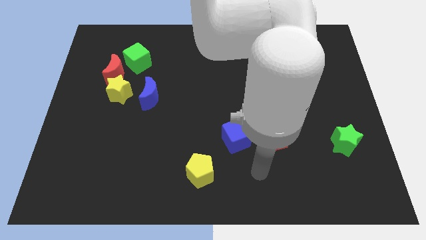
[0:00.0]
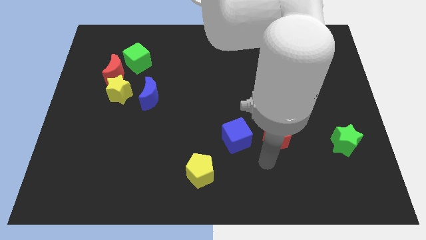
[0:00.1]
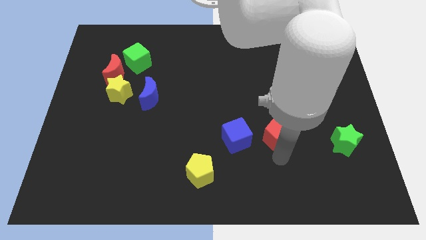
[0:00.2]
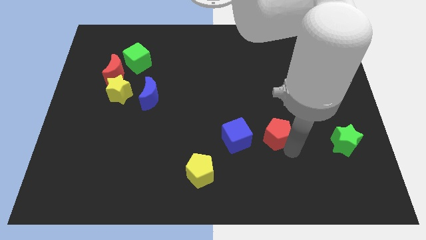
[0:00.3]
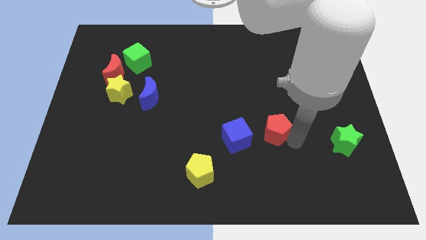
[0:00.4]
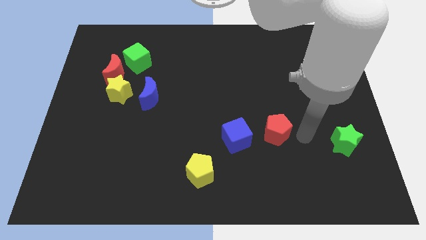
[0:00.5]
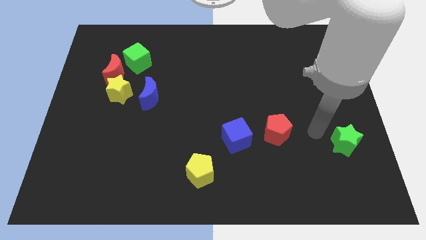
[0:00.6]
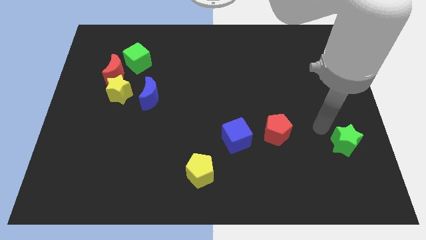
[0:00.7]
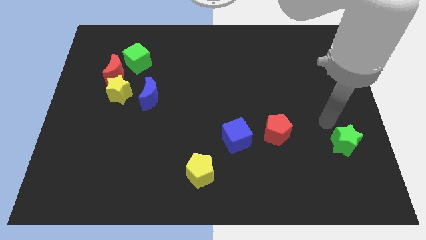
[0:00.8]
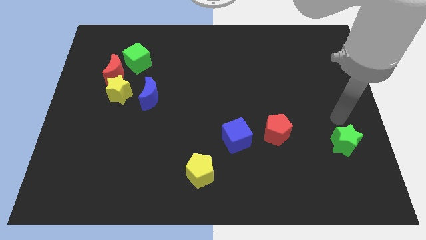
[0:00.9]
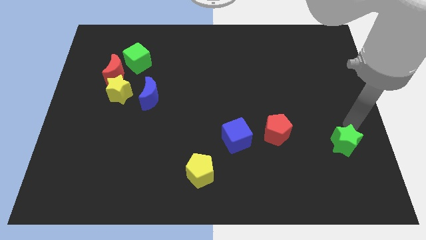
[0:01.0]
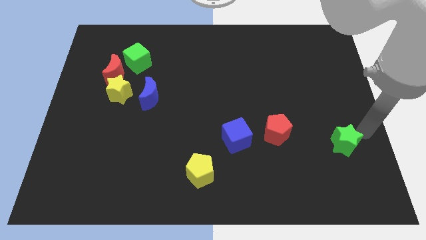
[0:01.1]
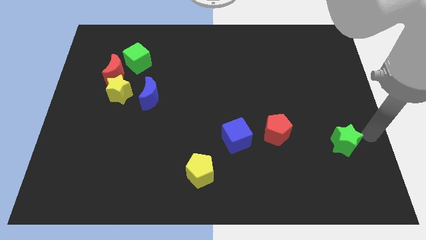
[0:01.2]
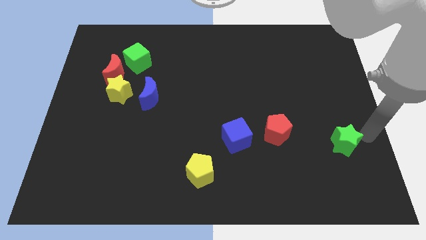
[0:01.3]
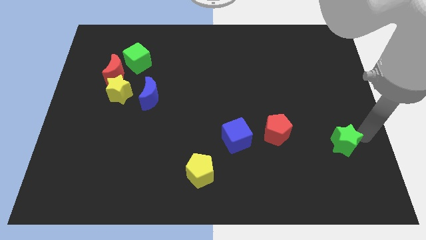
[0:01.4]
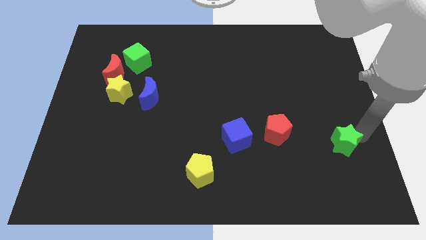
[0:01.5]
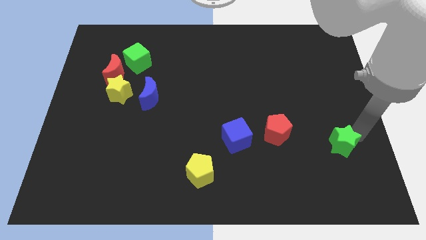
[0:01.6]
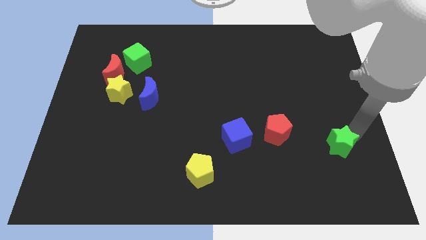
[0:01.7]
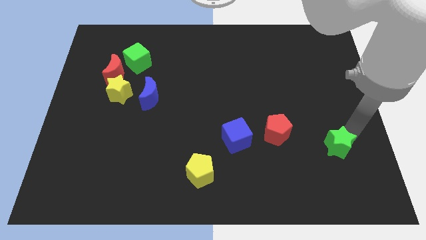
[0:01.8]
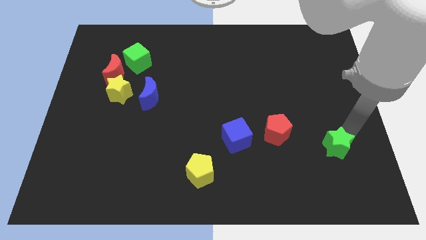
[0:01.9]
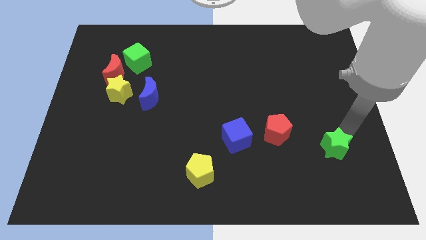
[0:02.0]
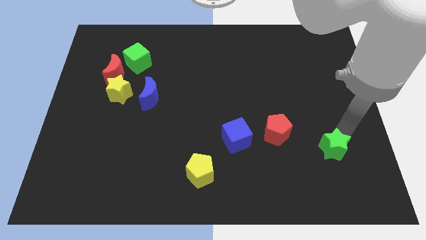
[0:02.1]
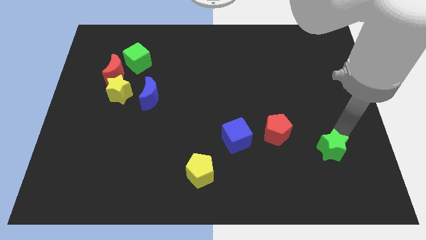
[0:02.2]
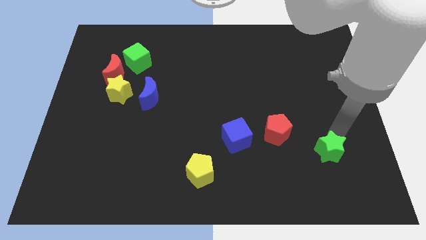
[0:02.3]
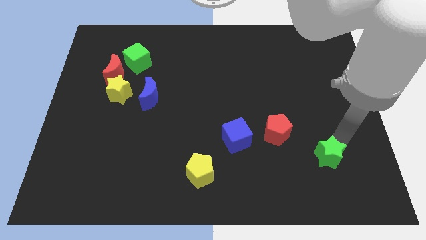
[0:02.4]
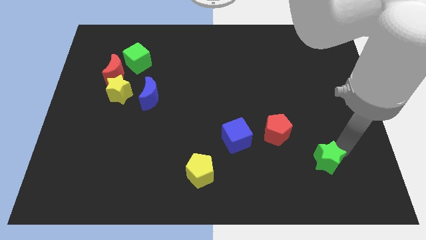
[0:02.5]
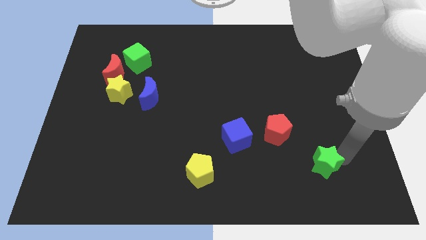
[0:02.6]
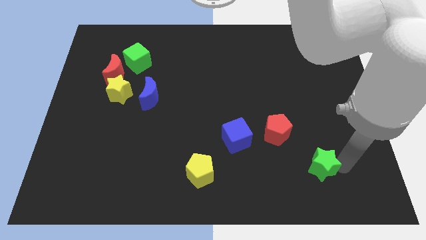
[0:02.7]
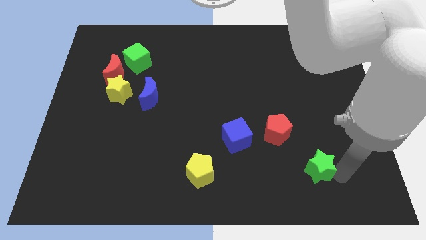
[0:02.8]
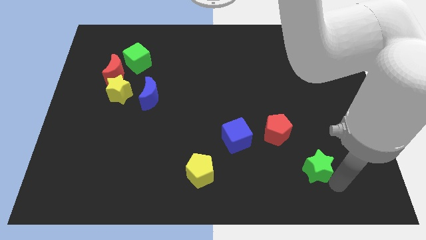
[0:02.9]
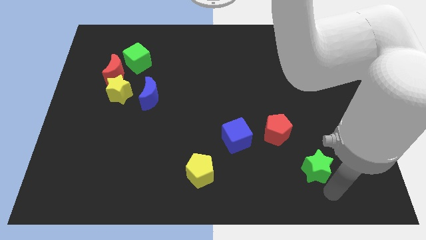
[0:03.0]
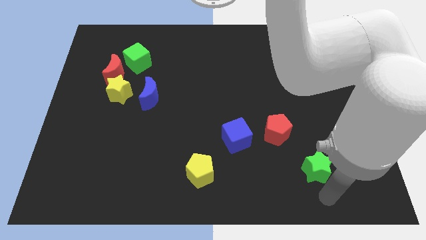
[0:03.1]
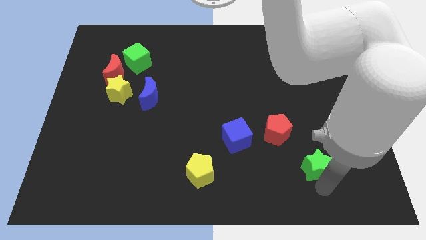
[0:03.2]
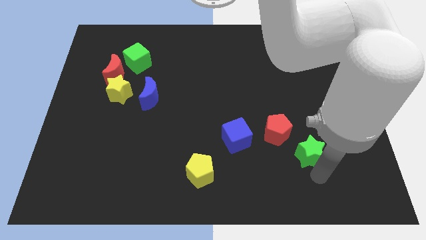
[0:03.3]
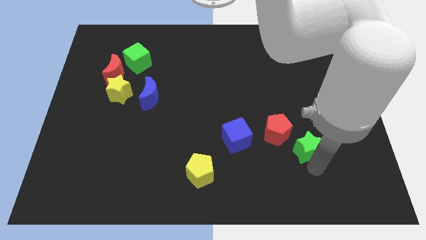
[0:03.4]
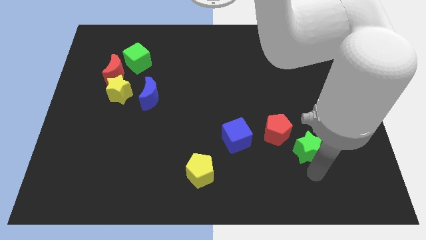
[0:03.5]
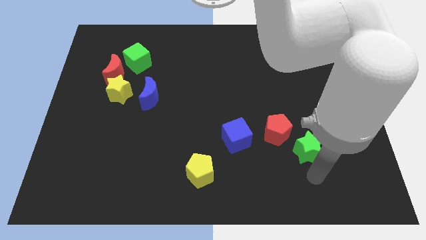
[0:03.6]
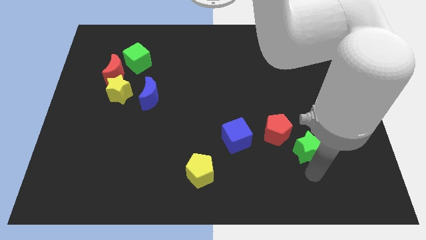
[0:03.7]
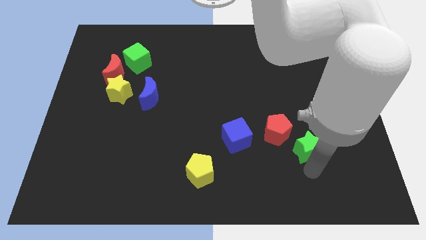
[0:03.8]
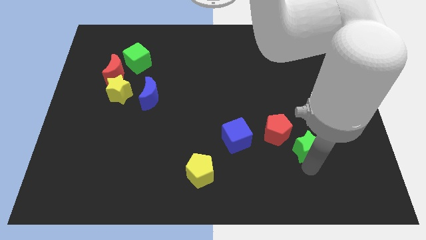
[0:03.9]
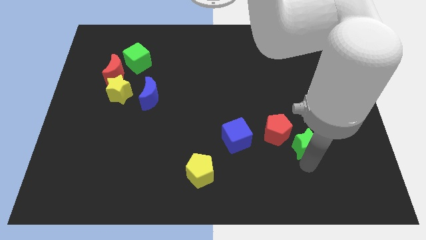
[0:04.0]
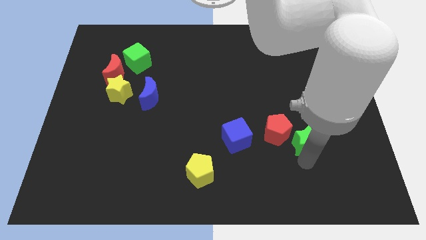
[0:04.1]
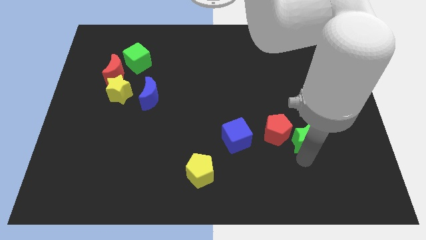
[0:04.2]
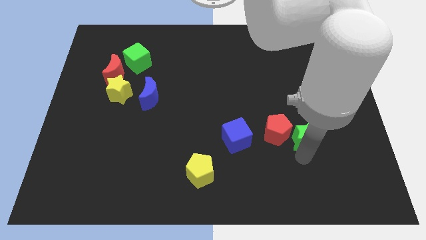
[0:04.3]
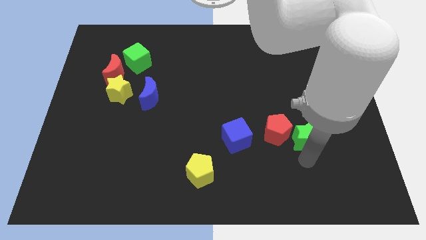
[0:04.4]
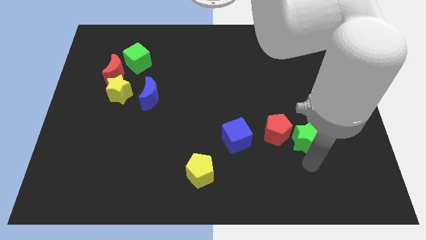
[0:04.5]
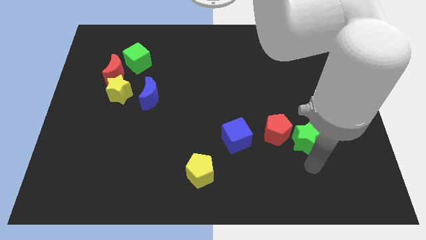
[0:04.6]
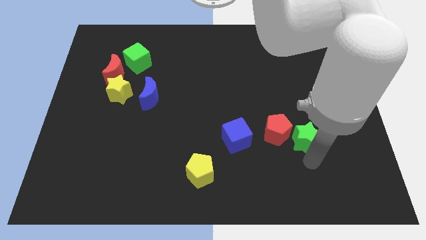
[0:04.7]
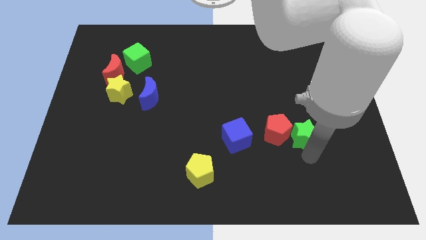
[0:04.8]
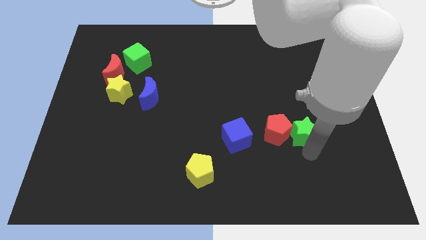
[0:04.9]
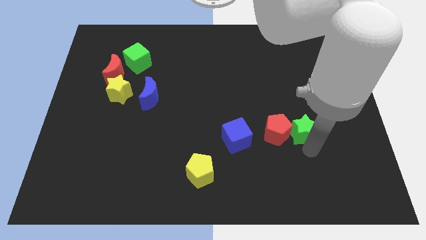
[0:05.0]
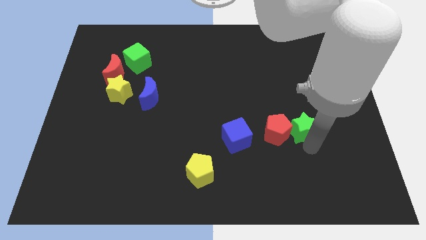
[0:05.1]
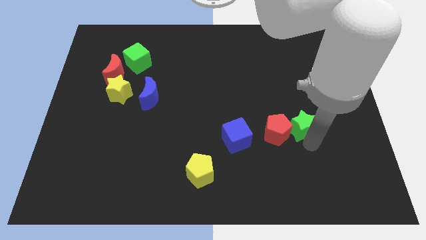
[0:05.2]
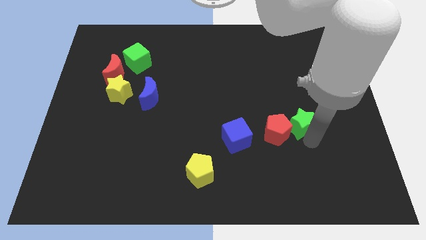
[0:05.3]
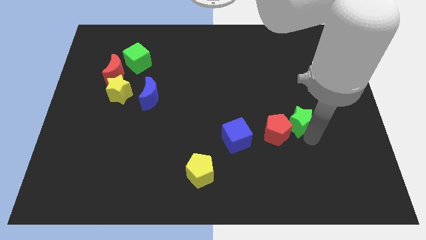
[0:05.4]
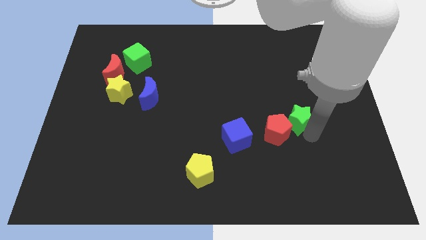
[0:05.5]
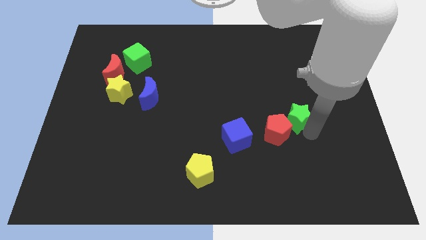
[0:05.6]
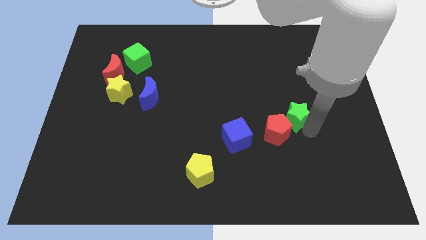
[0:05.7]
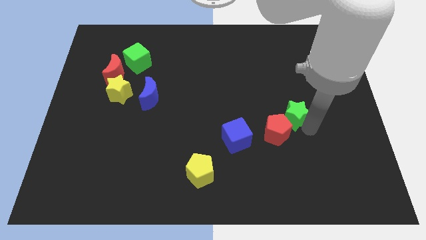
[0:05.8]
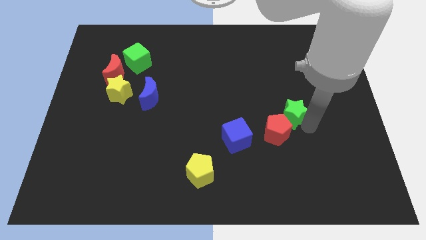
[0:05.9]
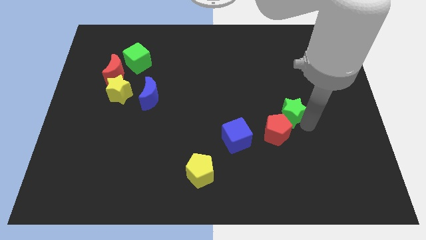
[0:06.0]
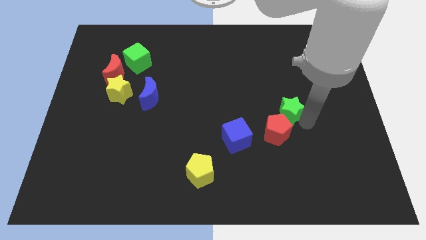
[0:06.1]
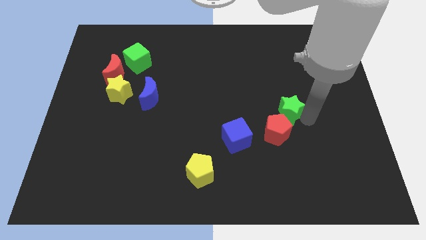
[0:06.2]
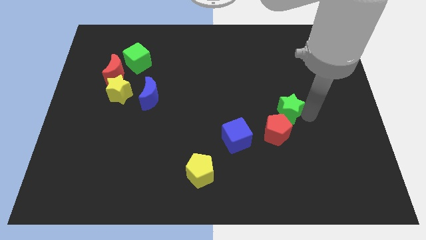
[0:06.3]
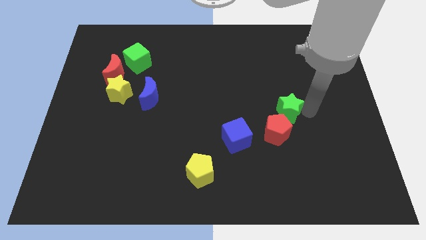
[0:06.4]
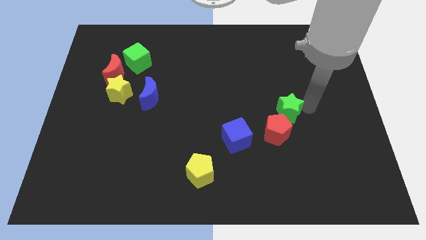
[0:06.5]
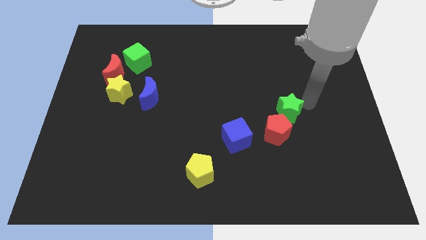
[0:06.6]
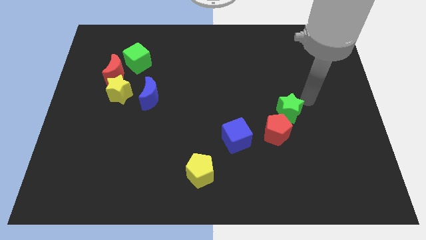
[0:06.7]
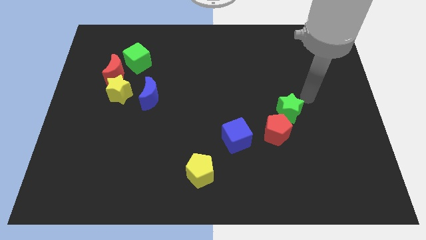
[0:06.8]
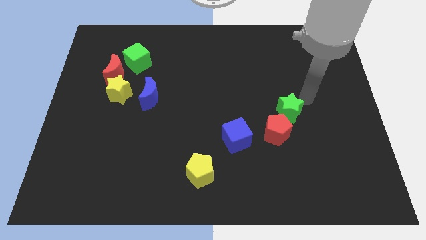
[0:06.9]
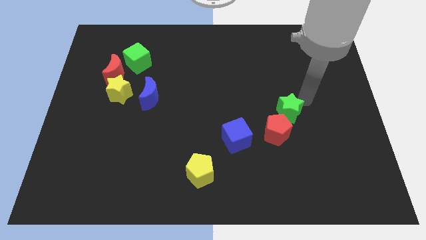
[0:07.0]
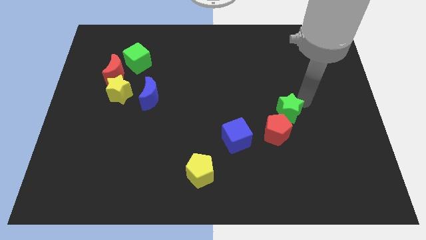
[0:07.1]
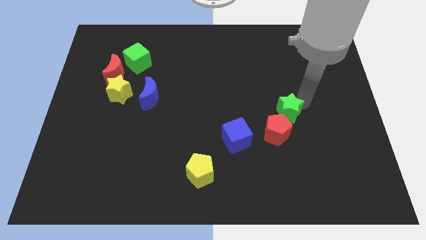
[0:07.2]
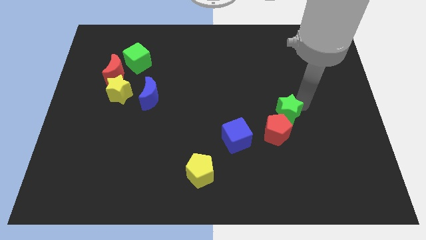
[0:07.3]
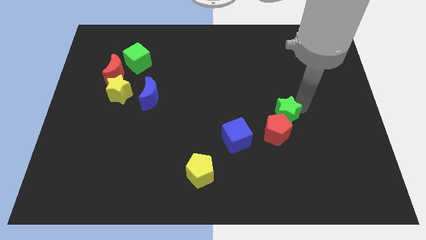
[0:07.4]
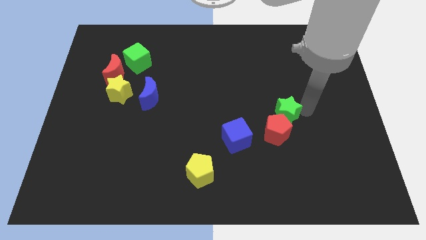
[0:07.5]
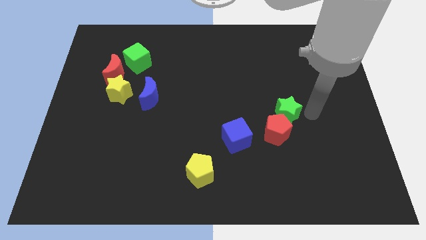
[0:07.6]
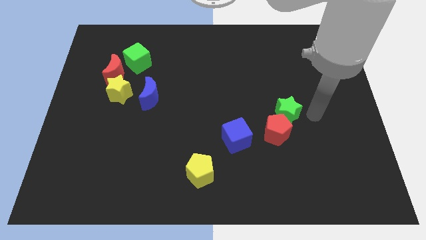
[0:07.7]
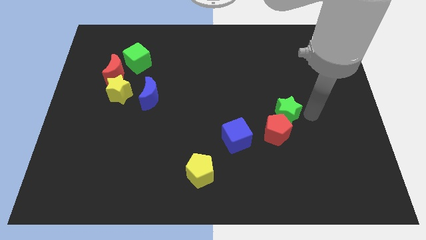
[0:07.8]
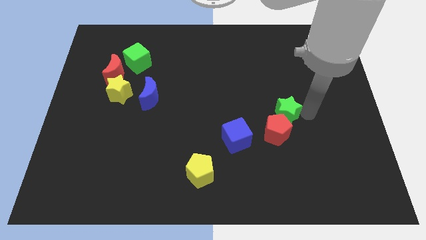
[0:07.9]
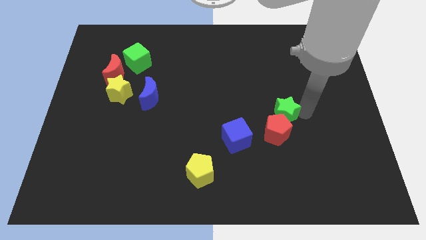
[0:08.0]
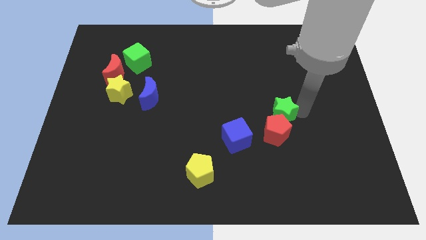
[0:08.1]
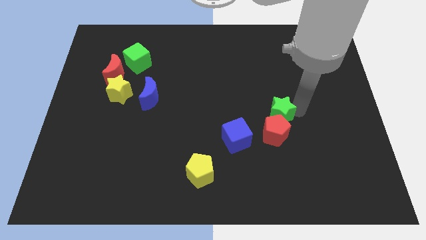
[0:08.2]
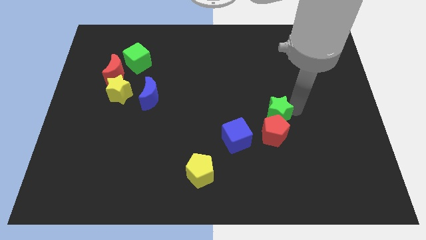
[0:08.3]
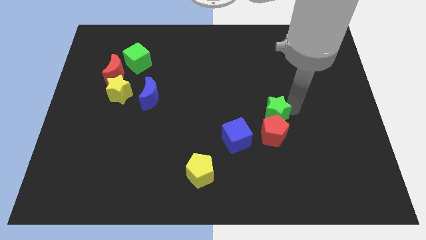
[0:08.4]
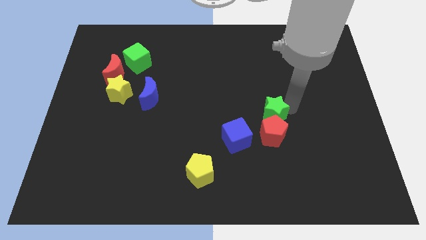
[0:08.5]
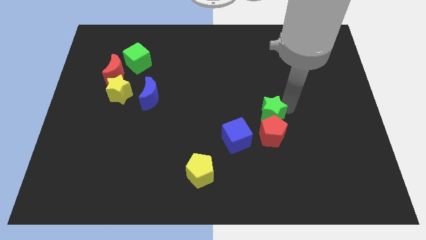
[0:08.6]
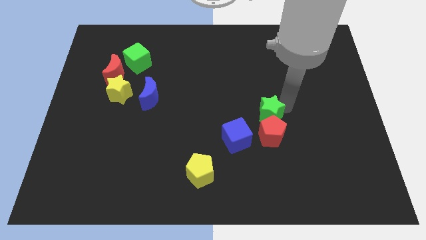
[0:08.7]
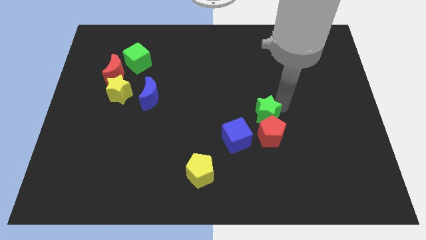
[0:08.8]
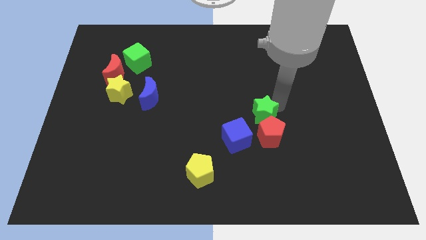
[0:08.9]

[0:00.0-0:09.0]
push the green star to the middle of the board
